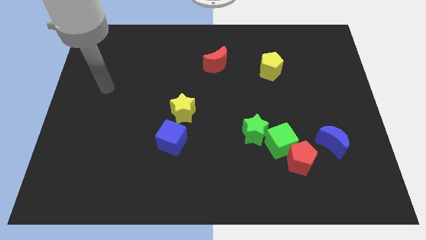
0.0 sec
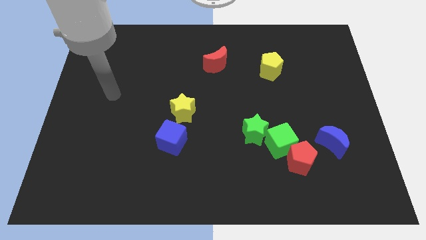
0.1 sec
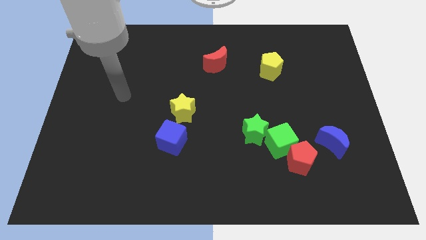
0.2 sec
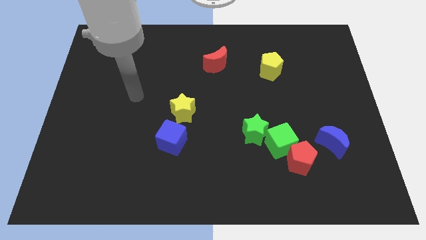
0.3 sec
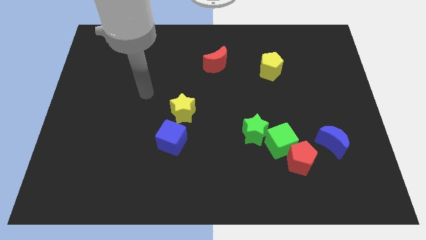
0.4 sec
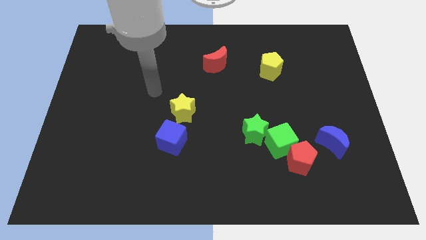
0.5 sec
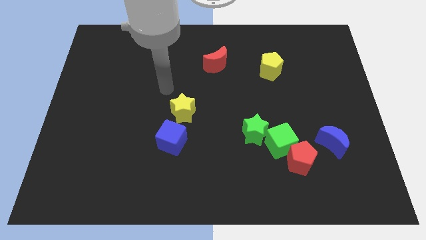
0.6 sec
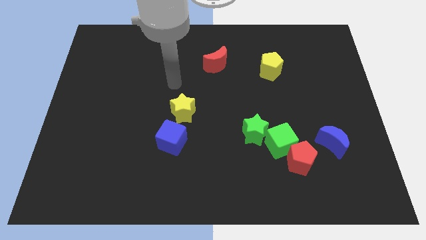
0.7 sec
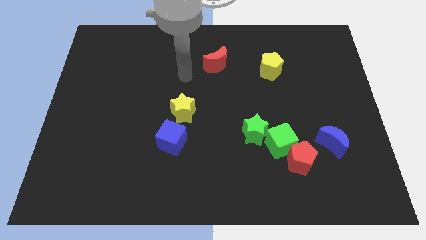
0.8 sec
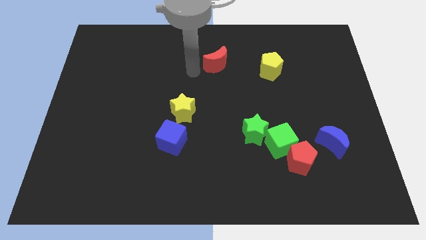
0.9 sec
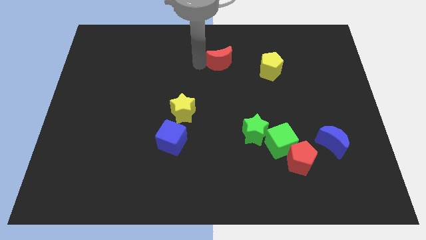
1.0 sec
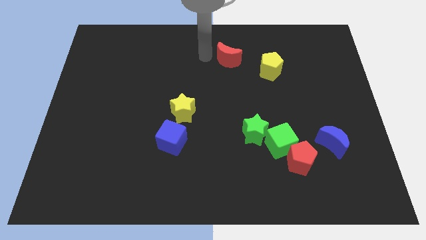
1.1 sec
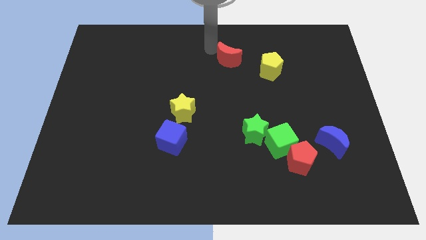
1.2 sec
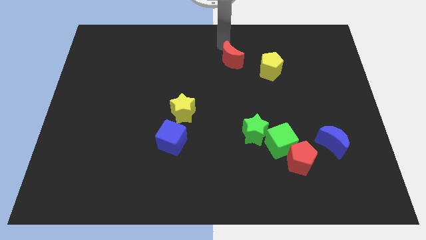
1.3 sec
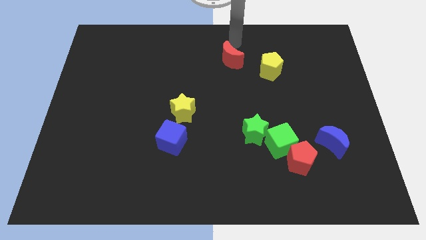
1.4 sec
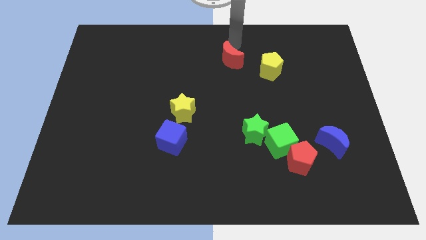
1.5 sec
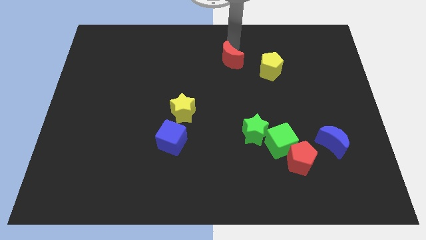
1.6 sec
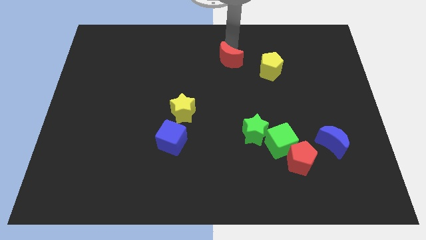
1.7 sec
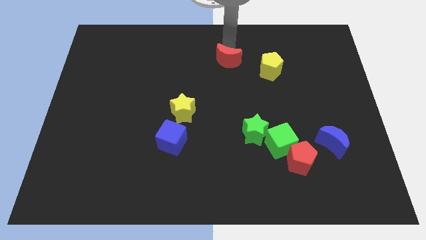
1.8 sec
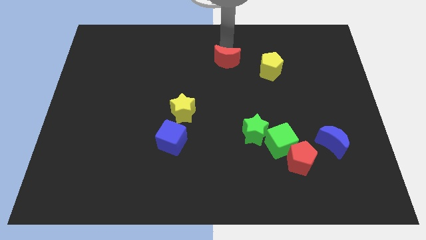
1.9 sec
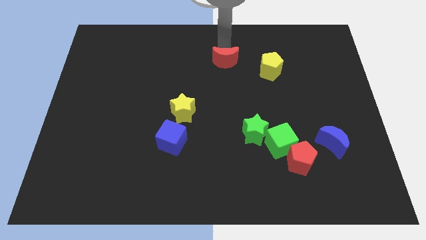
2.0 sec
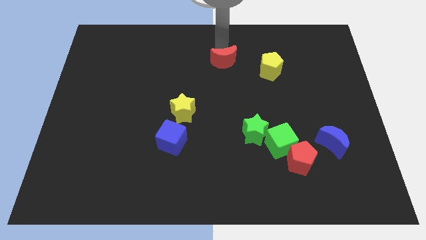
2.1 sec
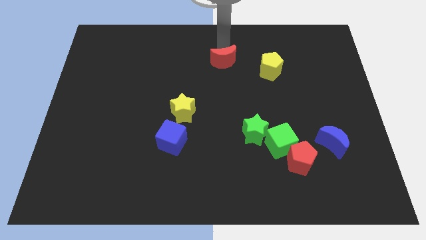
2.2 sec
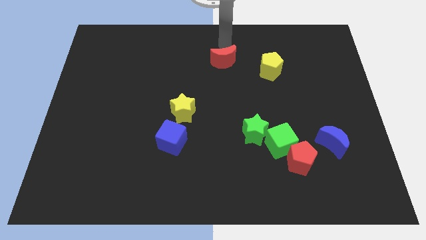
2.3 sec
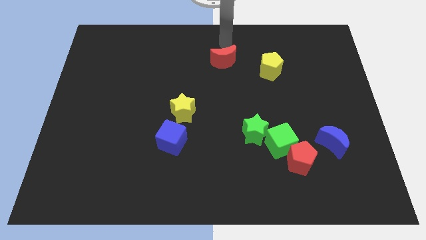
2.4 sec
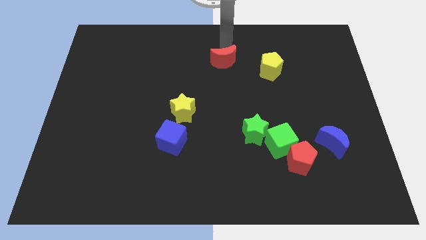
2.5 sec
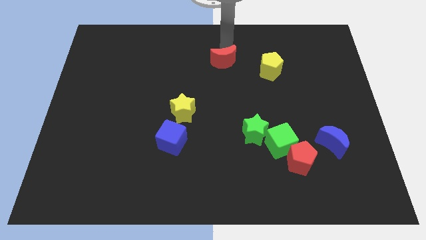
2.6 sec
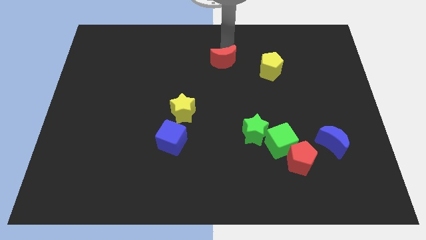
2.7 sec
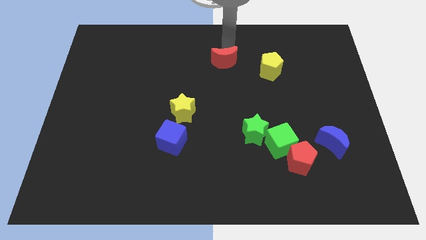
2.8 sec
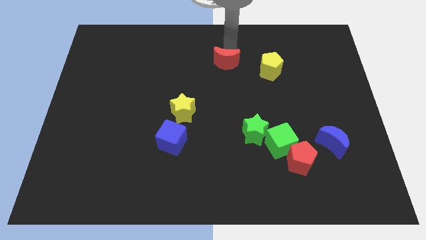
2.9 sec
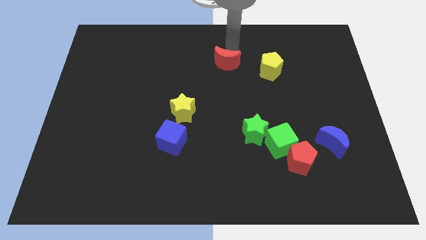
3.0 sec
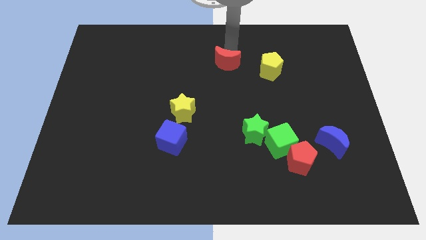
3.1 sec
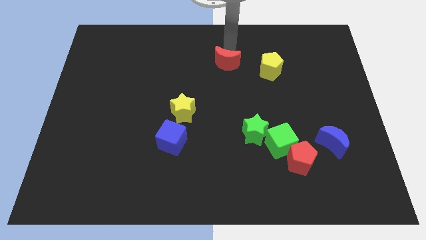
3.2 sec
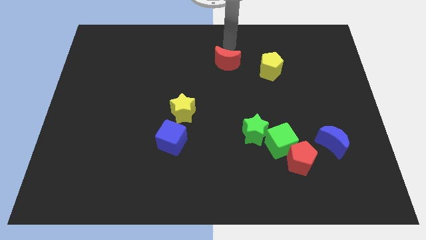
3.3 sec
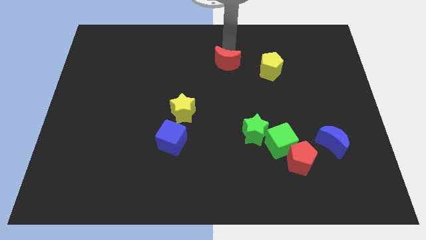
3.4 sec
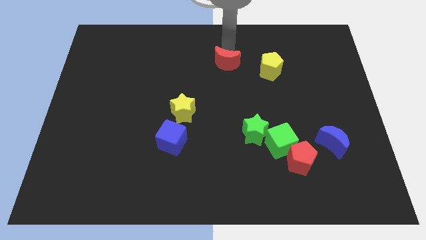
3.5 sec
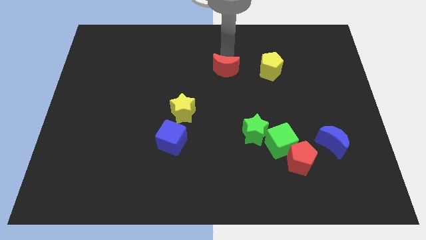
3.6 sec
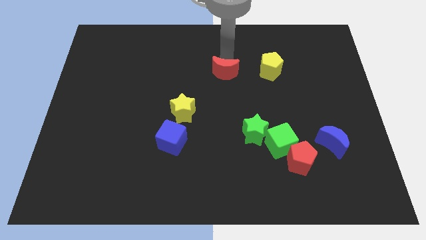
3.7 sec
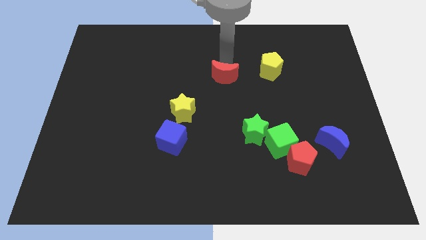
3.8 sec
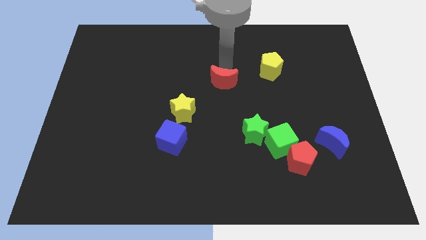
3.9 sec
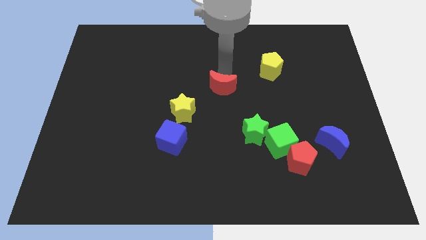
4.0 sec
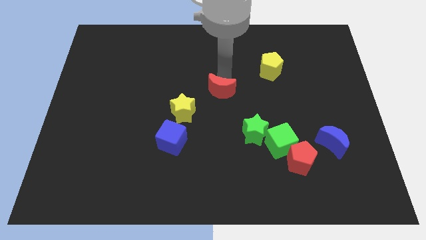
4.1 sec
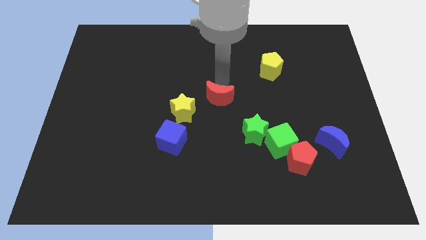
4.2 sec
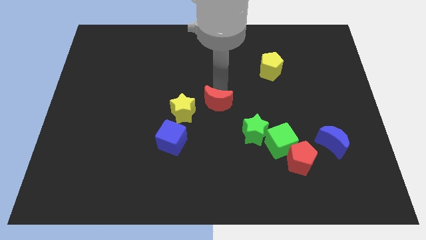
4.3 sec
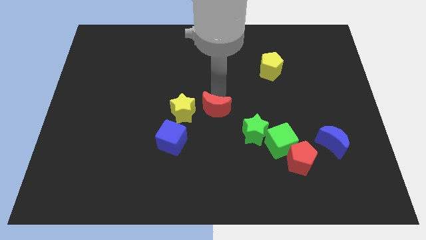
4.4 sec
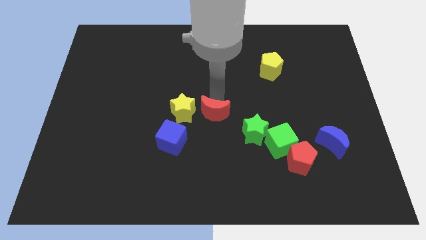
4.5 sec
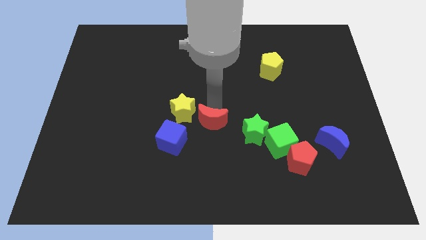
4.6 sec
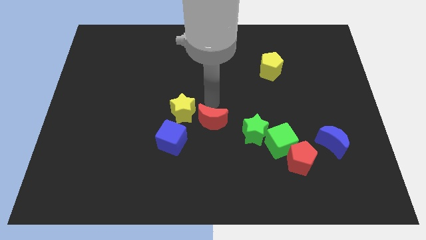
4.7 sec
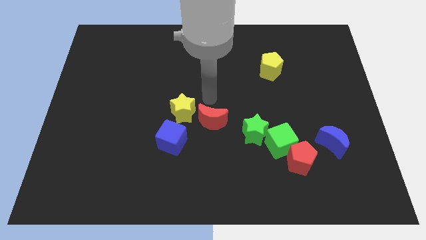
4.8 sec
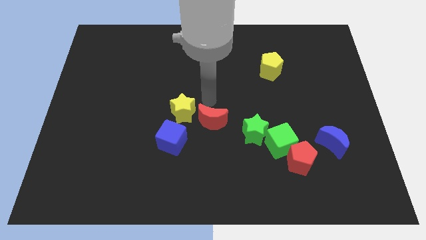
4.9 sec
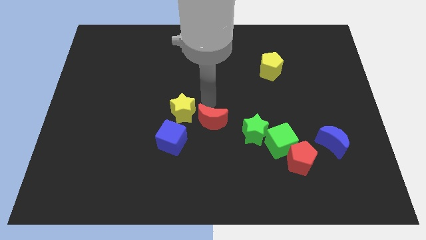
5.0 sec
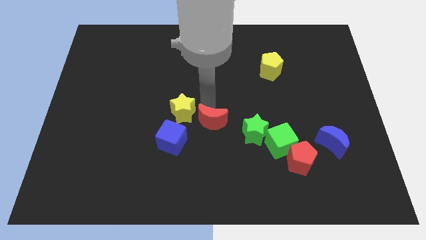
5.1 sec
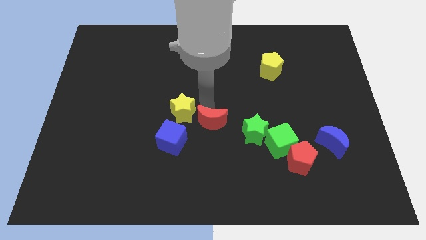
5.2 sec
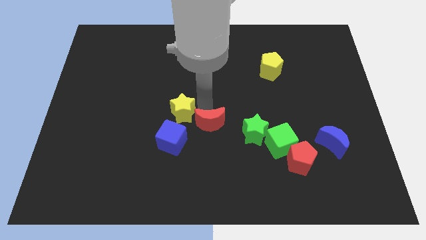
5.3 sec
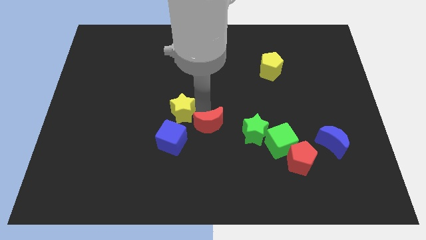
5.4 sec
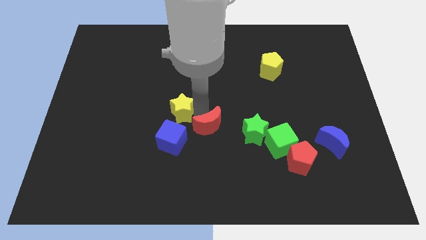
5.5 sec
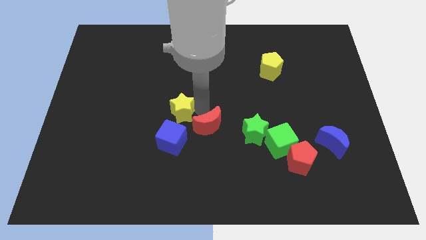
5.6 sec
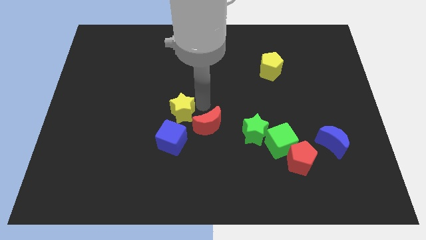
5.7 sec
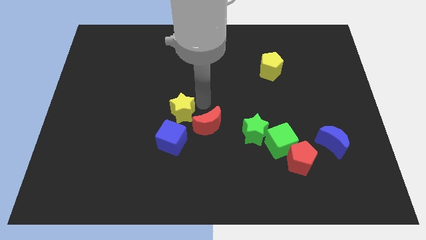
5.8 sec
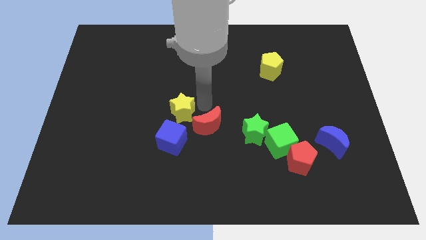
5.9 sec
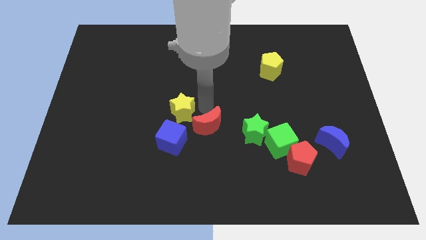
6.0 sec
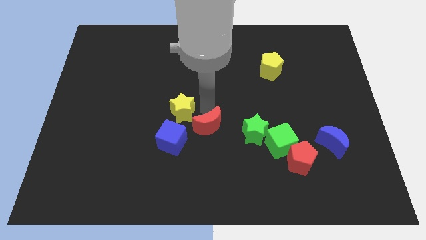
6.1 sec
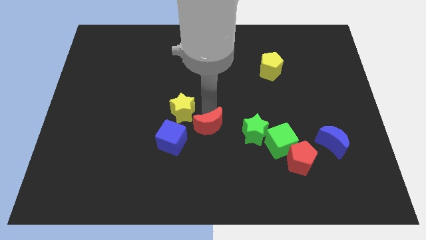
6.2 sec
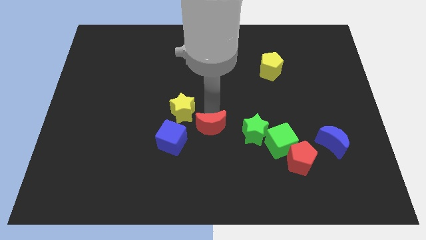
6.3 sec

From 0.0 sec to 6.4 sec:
move the red moon downwards

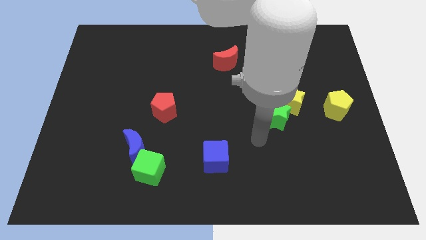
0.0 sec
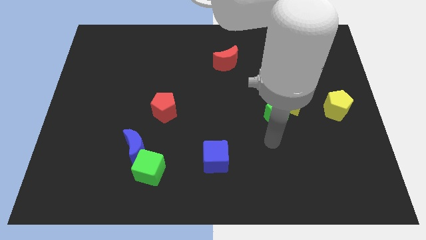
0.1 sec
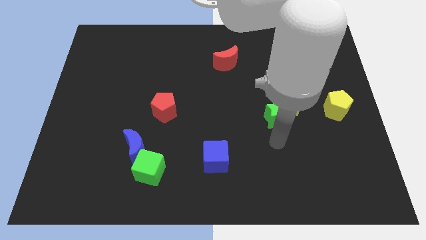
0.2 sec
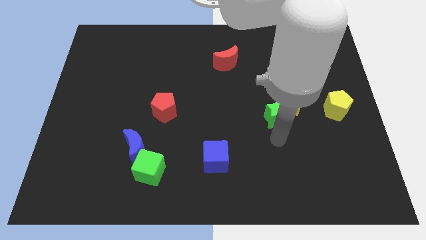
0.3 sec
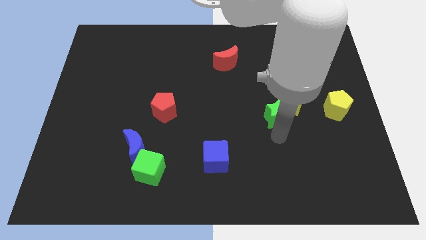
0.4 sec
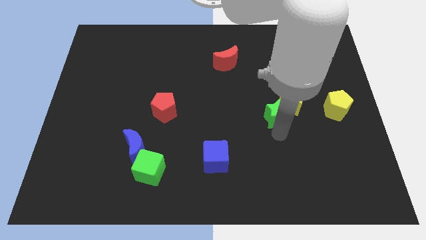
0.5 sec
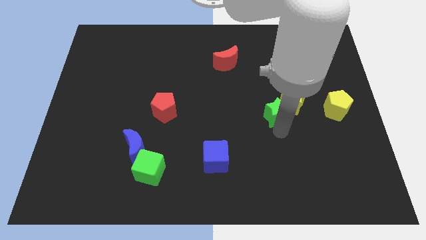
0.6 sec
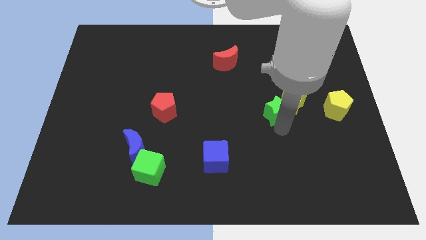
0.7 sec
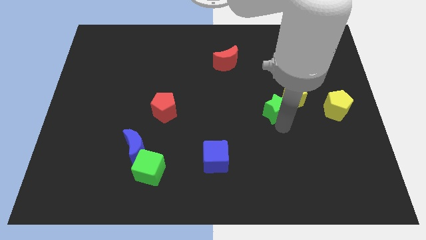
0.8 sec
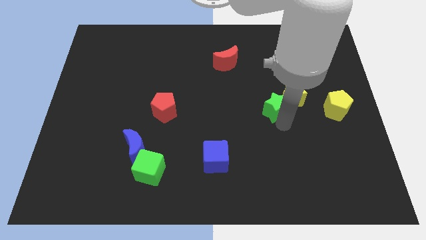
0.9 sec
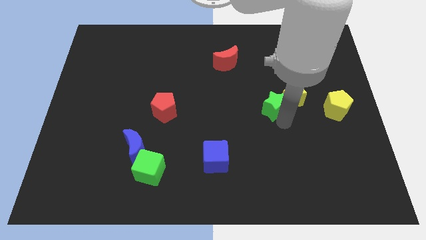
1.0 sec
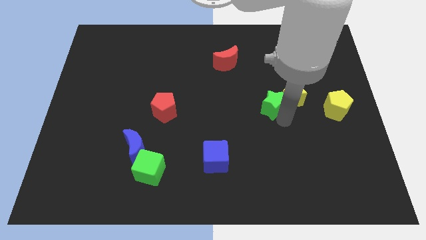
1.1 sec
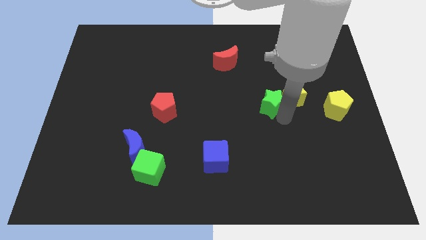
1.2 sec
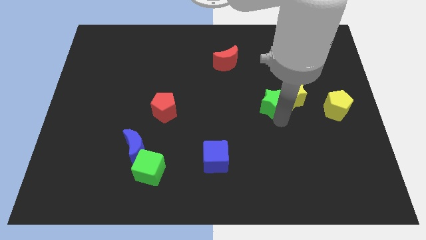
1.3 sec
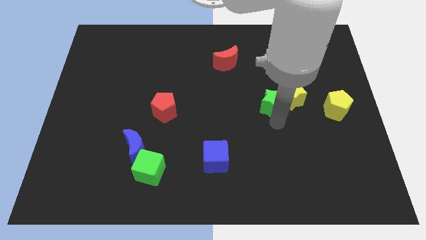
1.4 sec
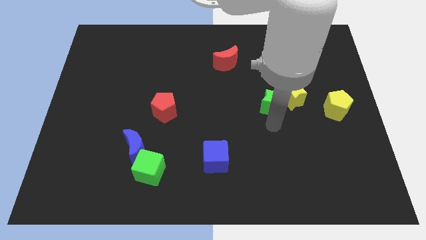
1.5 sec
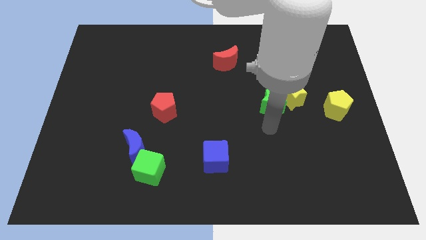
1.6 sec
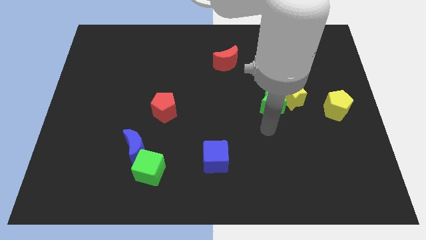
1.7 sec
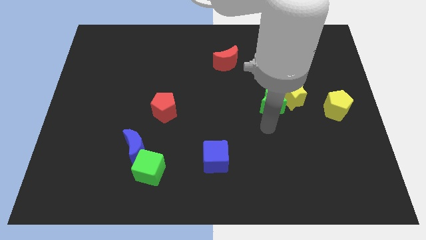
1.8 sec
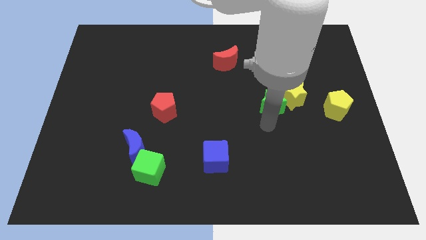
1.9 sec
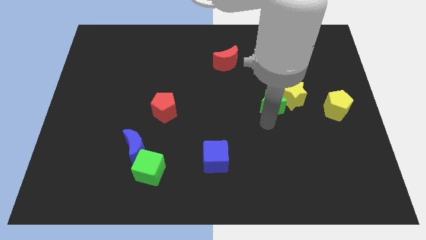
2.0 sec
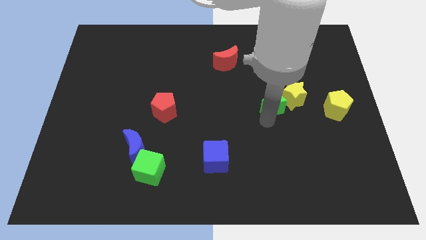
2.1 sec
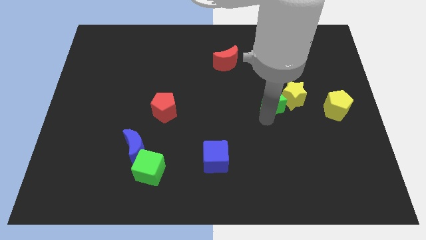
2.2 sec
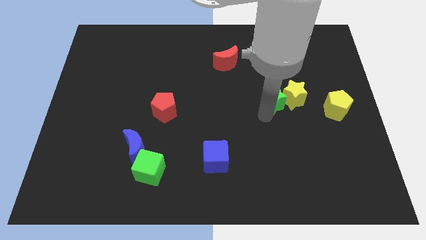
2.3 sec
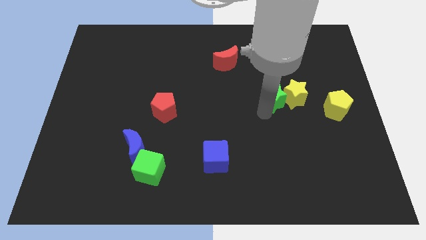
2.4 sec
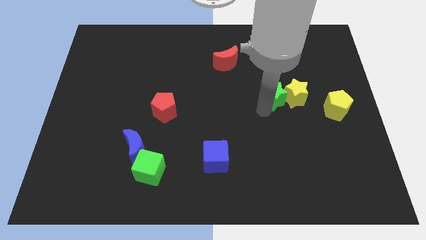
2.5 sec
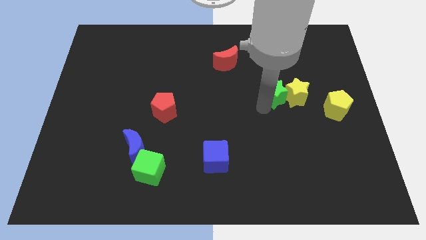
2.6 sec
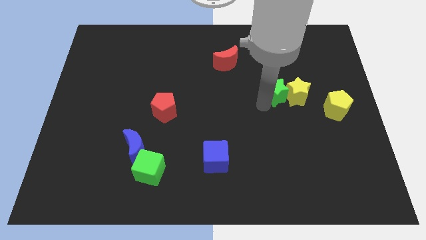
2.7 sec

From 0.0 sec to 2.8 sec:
push the green star slightly upwards
